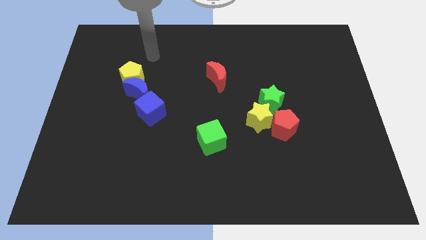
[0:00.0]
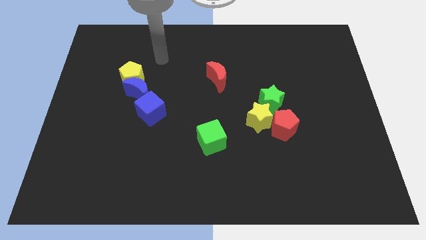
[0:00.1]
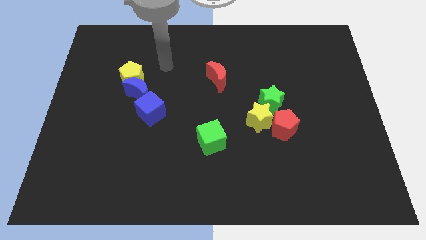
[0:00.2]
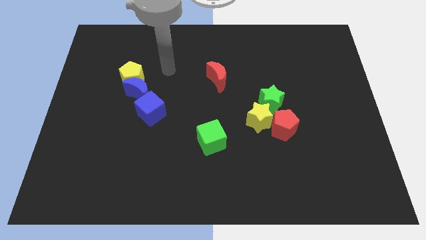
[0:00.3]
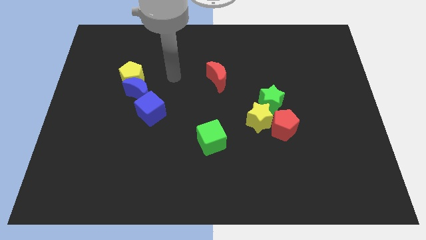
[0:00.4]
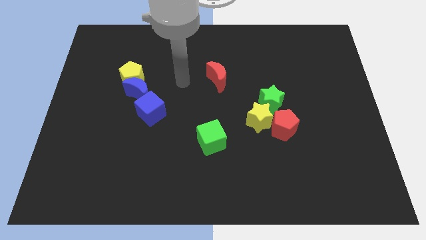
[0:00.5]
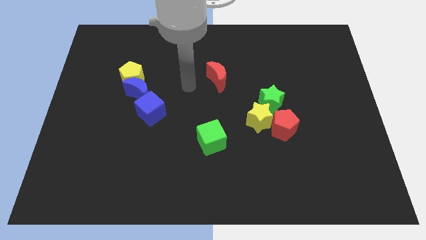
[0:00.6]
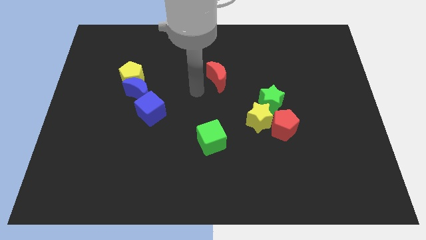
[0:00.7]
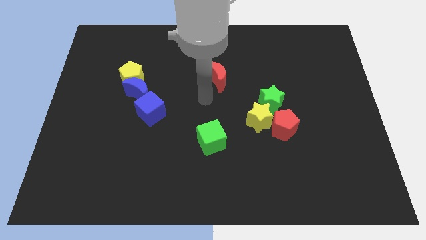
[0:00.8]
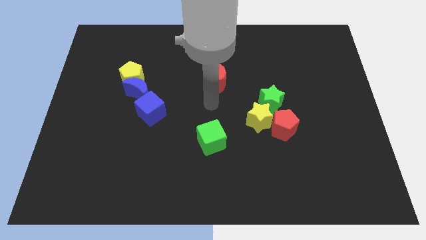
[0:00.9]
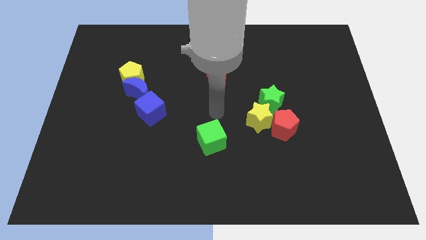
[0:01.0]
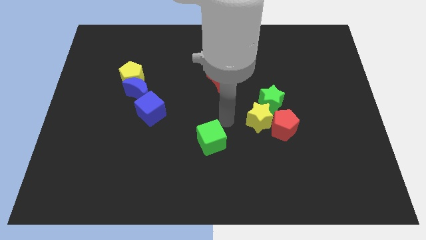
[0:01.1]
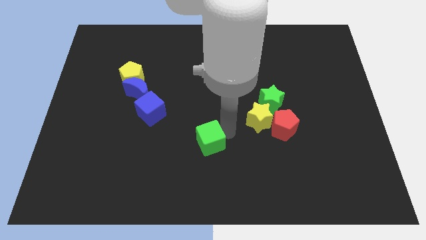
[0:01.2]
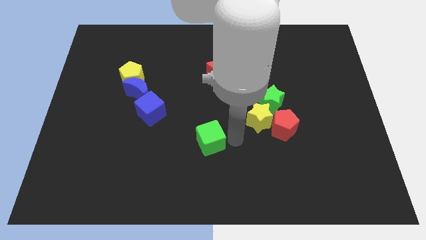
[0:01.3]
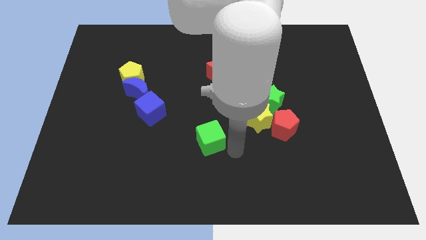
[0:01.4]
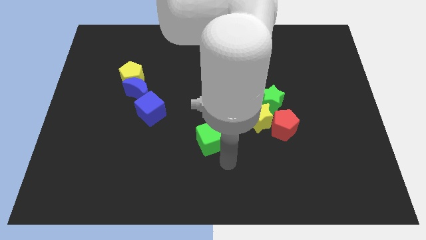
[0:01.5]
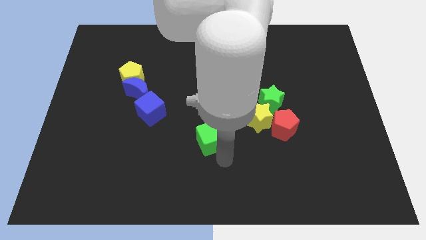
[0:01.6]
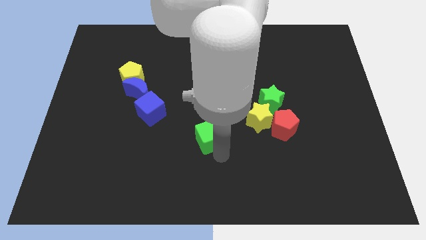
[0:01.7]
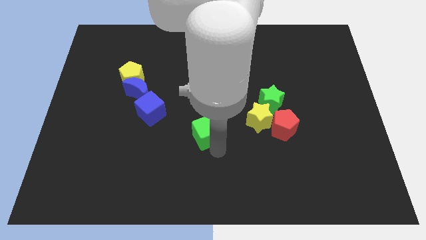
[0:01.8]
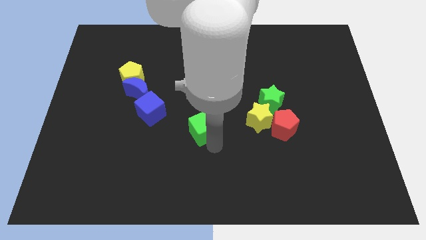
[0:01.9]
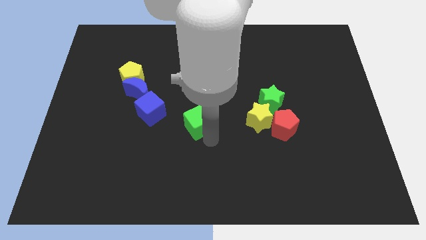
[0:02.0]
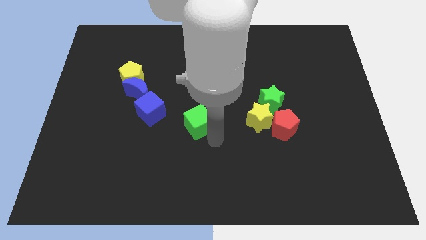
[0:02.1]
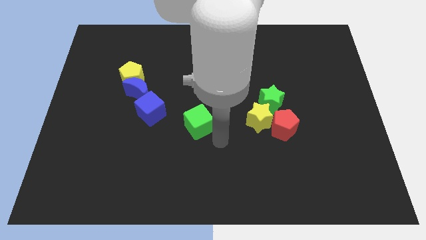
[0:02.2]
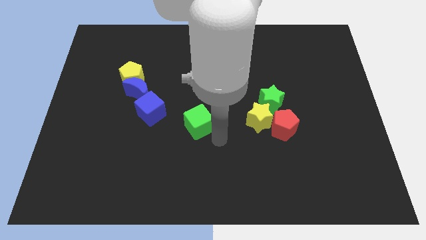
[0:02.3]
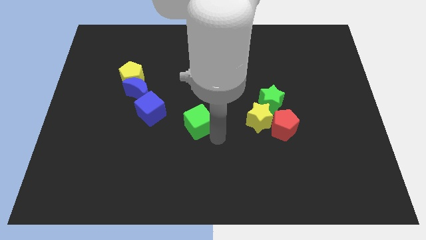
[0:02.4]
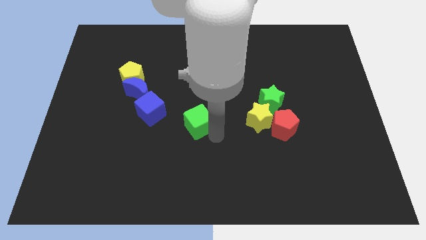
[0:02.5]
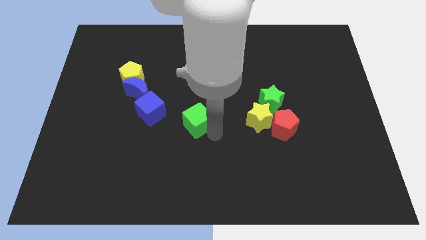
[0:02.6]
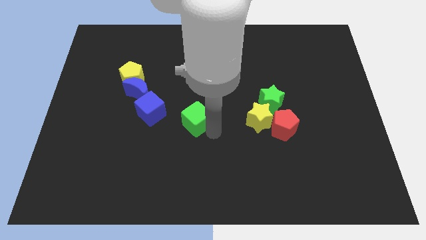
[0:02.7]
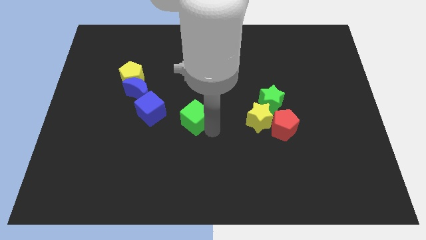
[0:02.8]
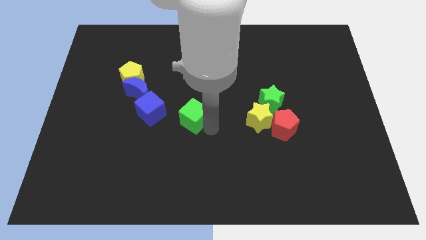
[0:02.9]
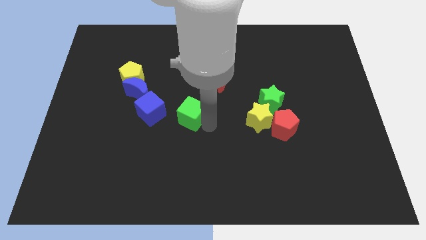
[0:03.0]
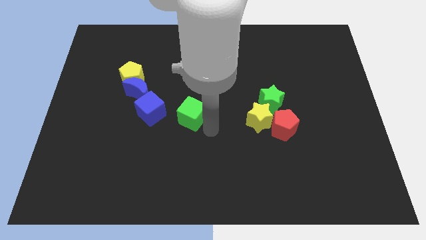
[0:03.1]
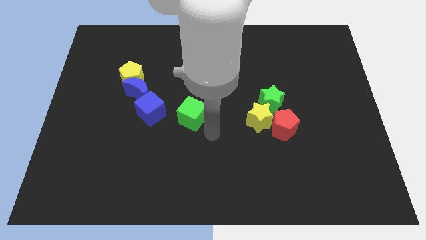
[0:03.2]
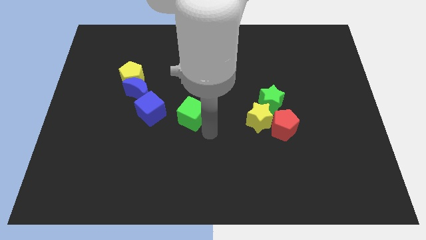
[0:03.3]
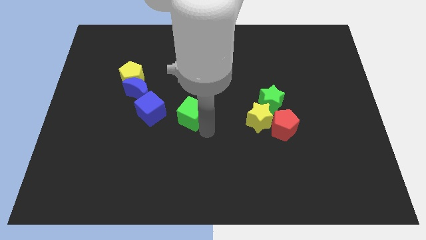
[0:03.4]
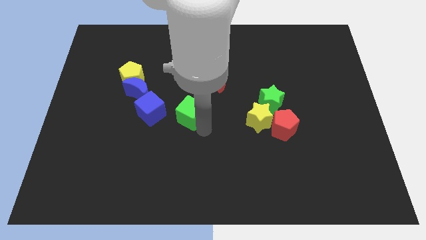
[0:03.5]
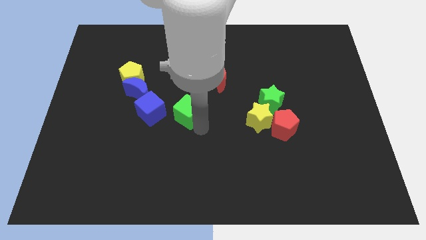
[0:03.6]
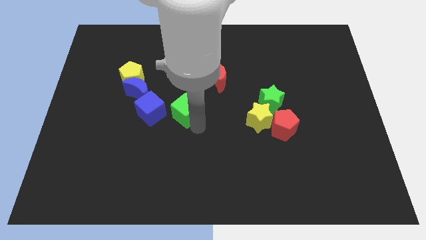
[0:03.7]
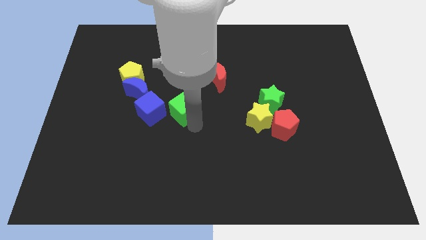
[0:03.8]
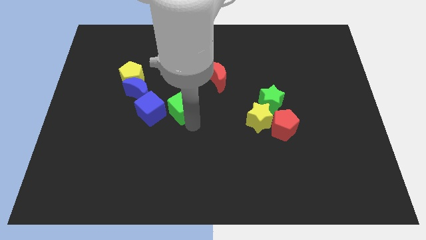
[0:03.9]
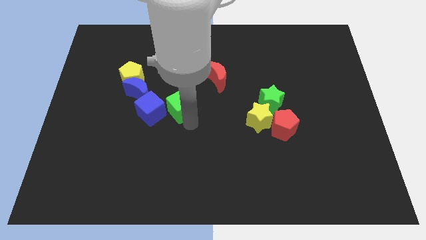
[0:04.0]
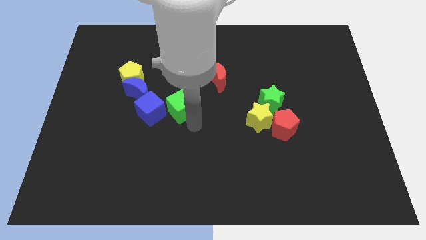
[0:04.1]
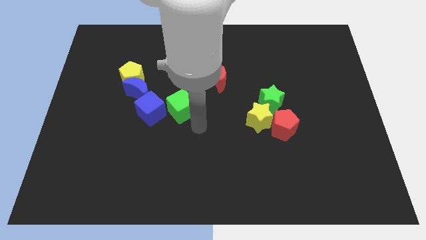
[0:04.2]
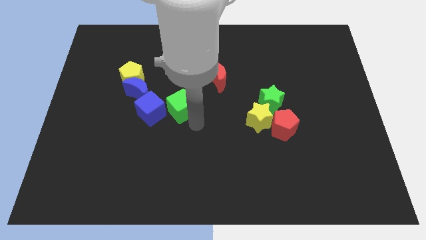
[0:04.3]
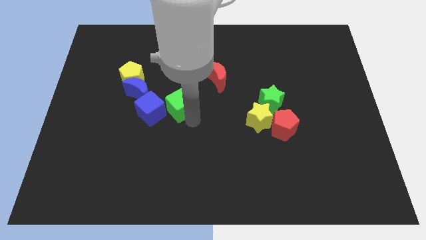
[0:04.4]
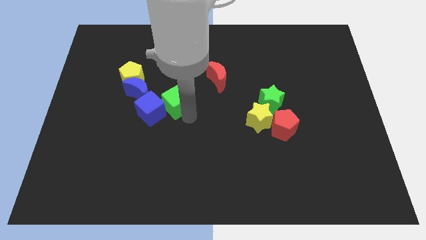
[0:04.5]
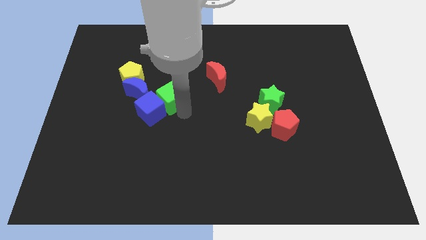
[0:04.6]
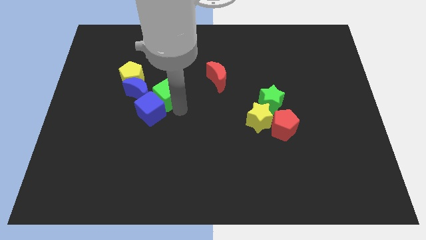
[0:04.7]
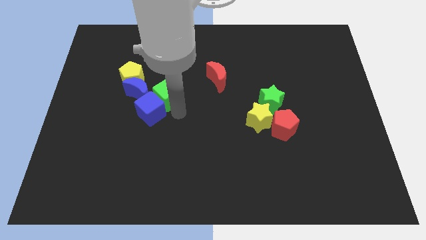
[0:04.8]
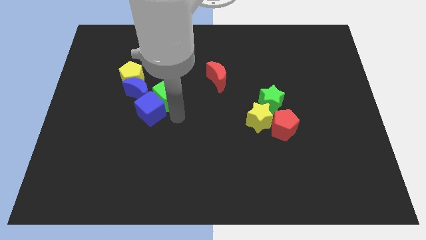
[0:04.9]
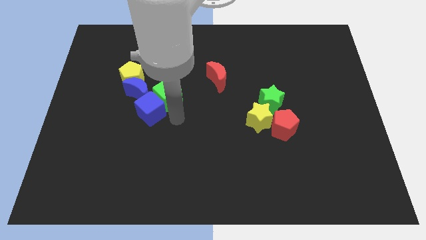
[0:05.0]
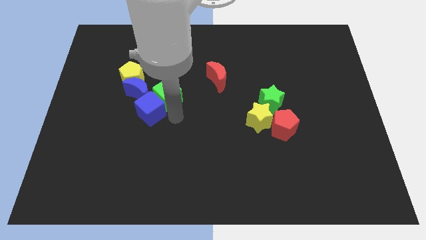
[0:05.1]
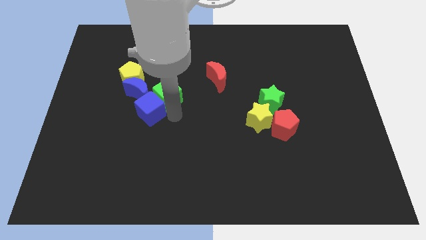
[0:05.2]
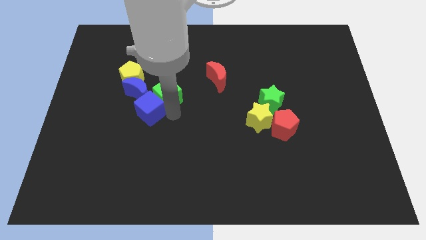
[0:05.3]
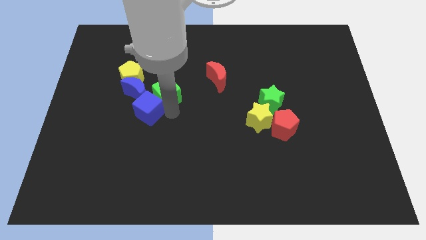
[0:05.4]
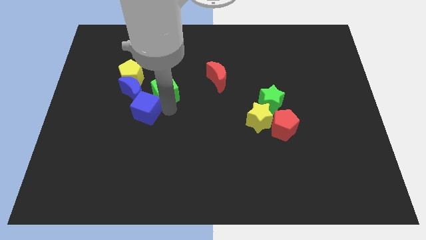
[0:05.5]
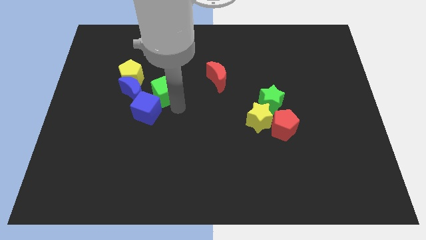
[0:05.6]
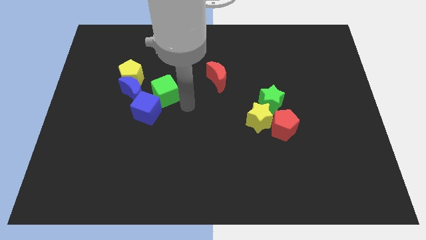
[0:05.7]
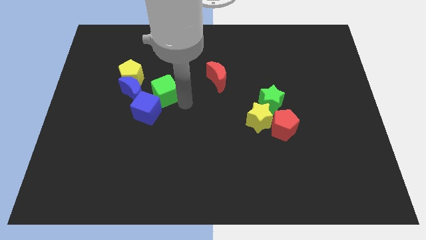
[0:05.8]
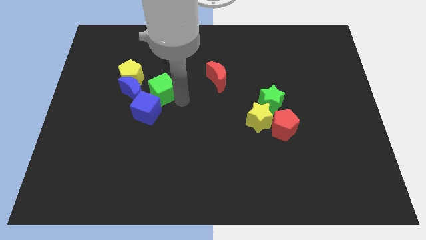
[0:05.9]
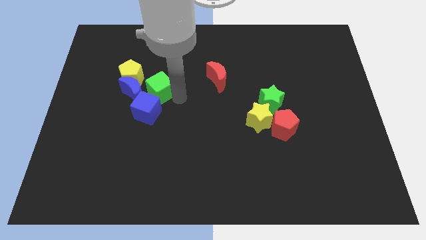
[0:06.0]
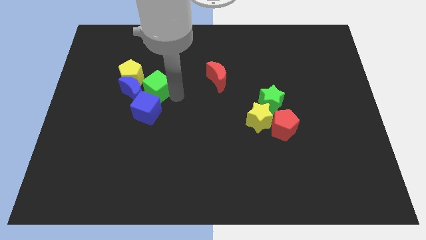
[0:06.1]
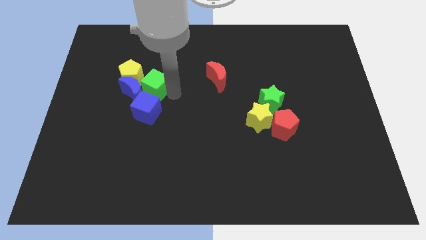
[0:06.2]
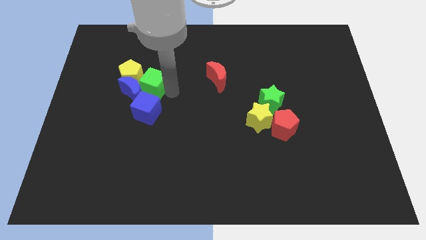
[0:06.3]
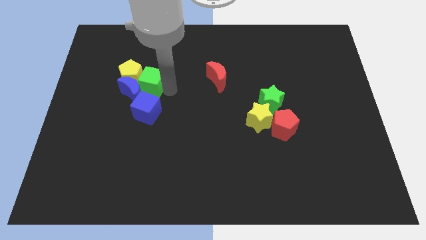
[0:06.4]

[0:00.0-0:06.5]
slide the green cube close to the yellow pentagon
